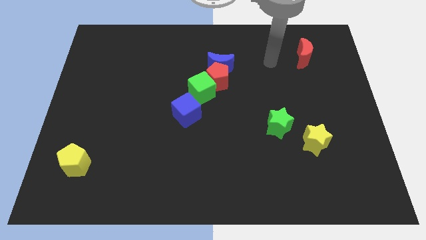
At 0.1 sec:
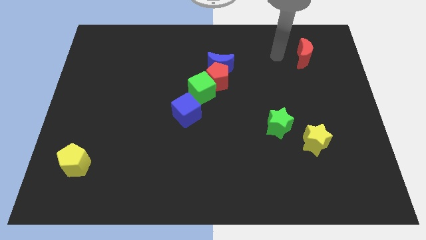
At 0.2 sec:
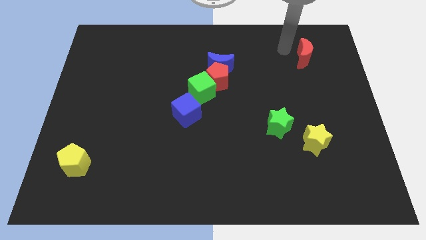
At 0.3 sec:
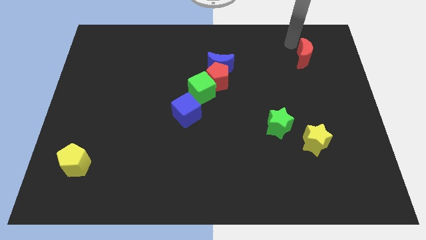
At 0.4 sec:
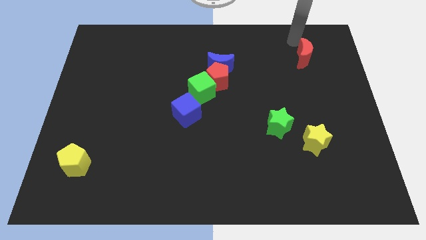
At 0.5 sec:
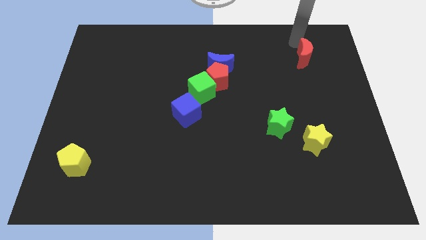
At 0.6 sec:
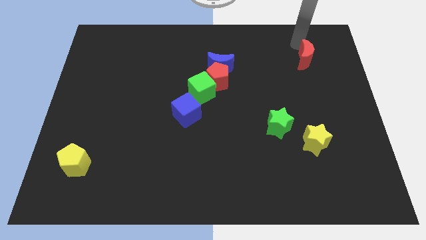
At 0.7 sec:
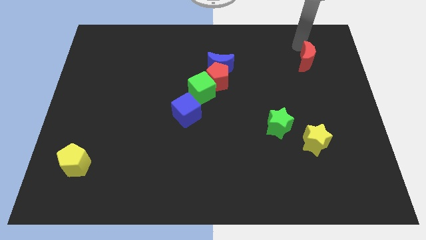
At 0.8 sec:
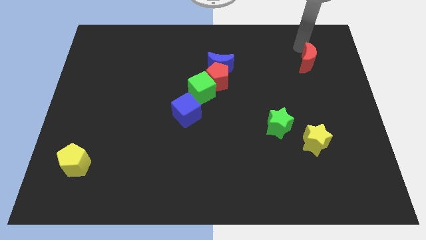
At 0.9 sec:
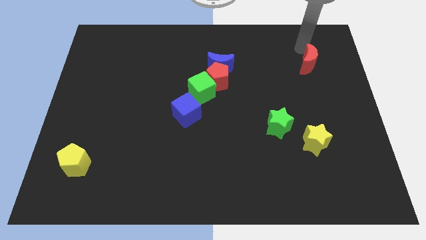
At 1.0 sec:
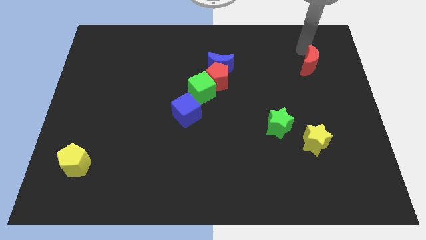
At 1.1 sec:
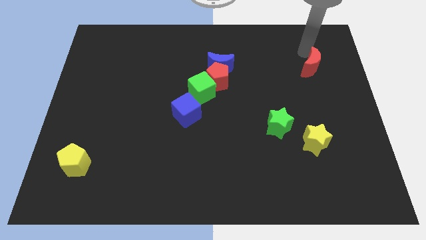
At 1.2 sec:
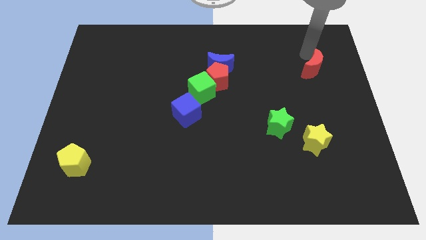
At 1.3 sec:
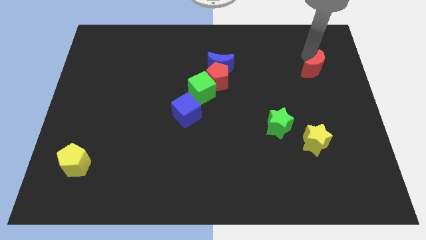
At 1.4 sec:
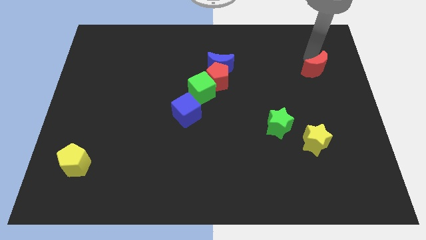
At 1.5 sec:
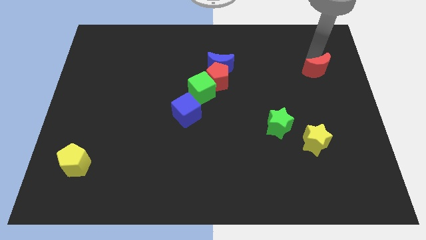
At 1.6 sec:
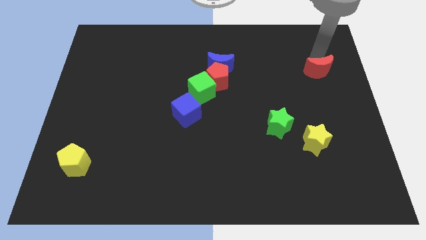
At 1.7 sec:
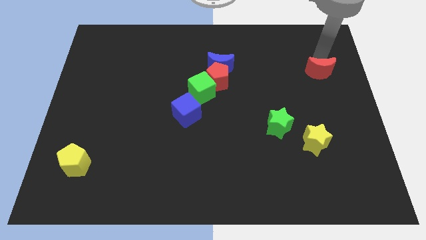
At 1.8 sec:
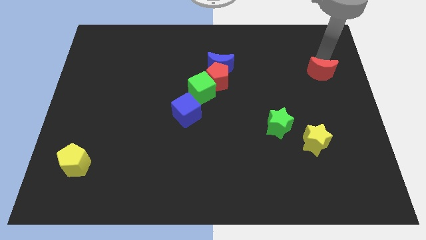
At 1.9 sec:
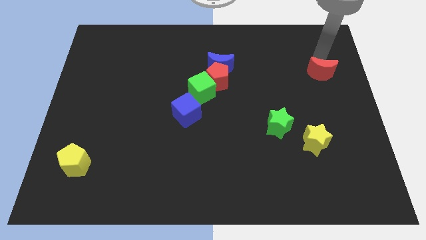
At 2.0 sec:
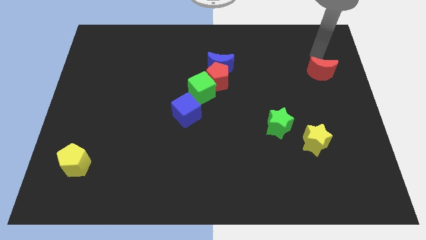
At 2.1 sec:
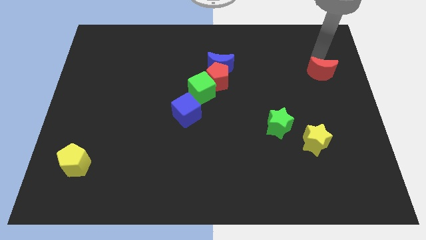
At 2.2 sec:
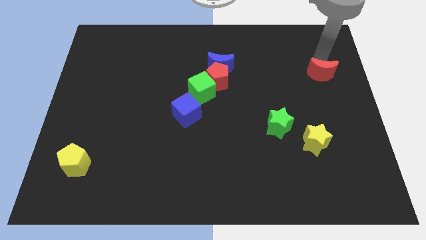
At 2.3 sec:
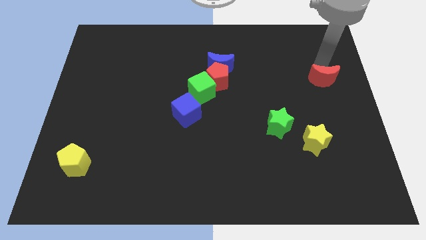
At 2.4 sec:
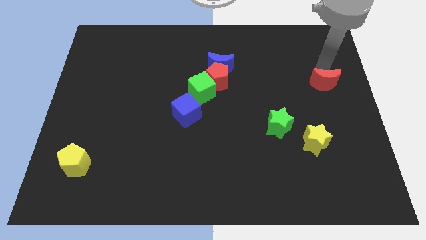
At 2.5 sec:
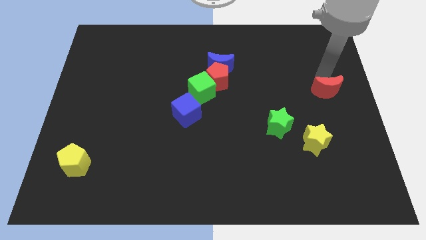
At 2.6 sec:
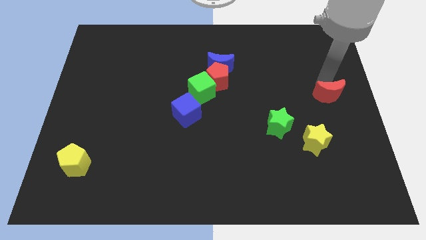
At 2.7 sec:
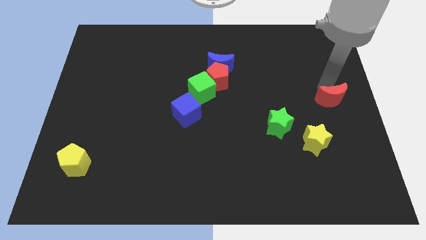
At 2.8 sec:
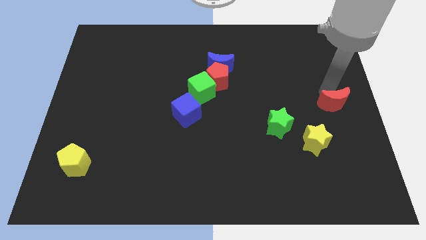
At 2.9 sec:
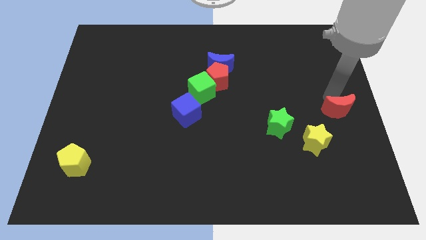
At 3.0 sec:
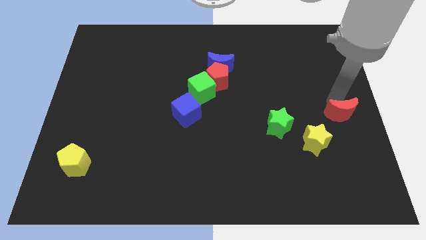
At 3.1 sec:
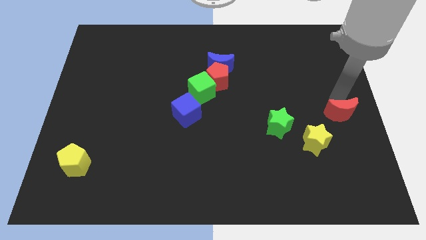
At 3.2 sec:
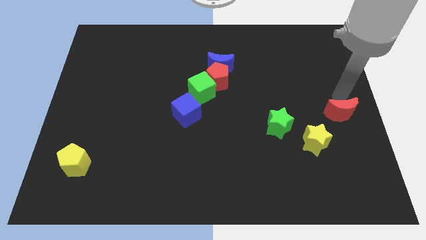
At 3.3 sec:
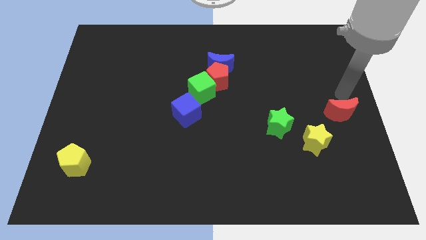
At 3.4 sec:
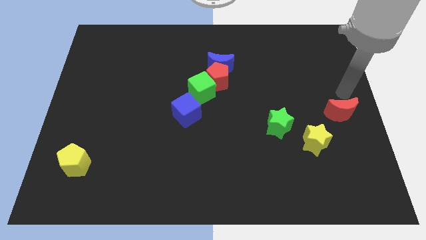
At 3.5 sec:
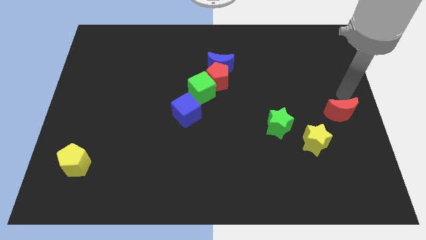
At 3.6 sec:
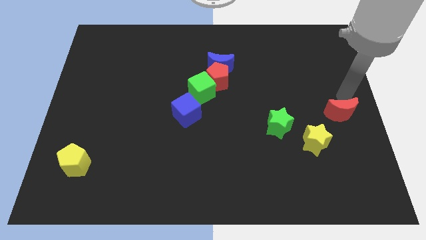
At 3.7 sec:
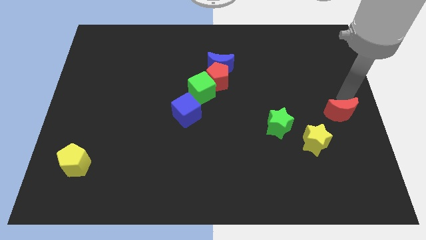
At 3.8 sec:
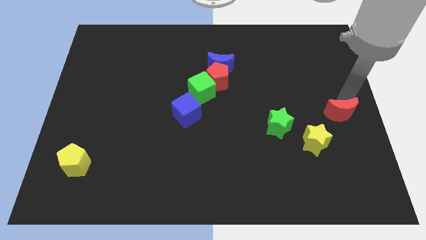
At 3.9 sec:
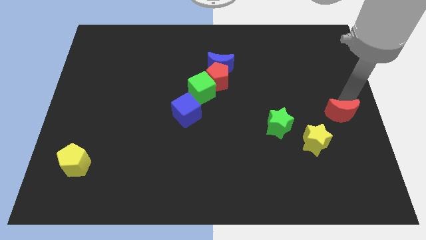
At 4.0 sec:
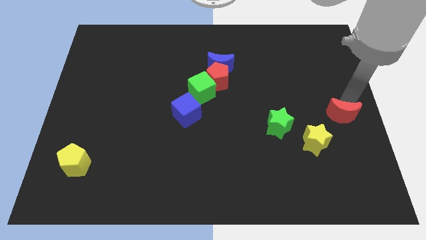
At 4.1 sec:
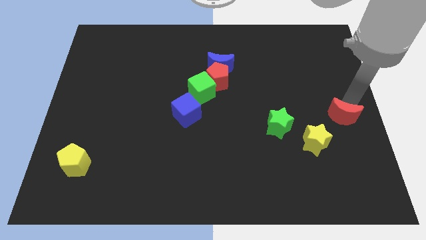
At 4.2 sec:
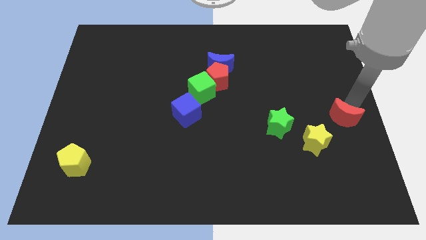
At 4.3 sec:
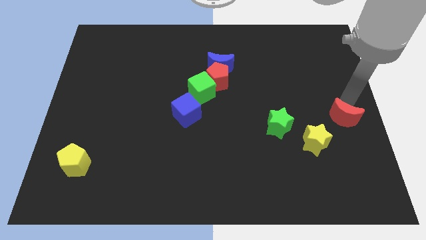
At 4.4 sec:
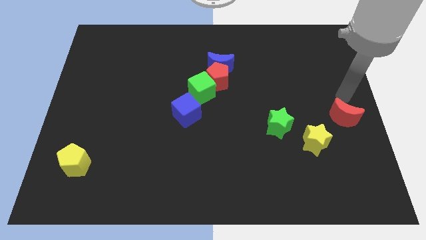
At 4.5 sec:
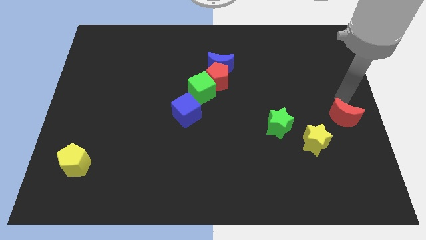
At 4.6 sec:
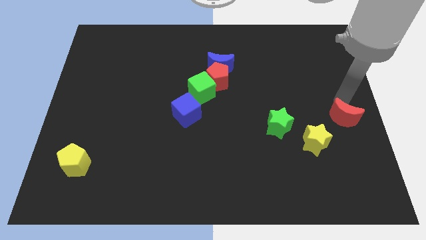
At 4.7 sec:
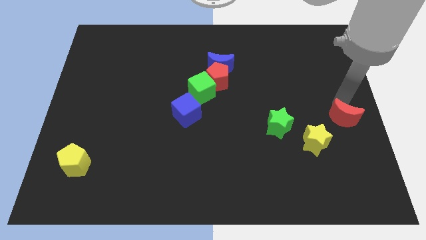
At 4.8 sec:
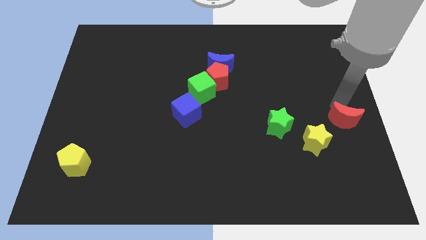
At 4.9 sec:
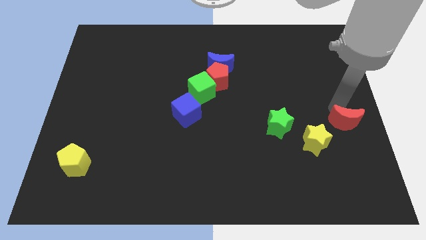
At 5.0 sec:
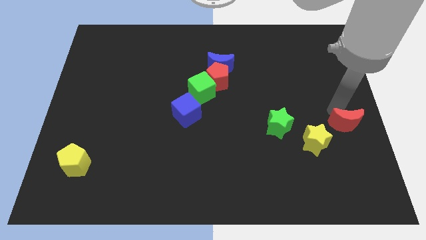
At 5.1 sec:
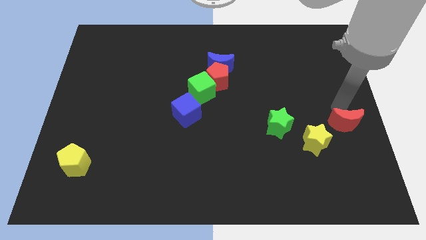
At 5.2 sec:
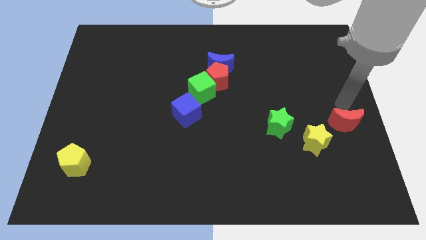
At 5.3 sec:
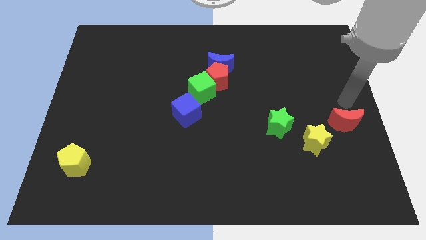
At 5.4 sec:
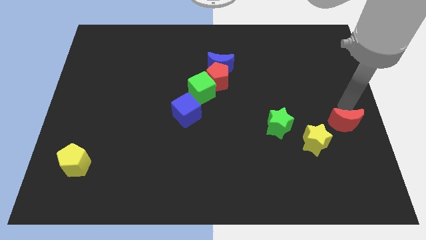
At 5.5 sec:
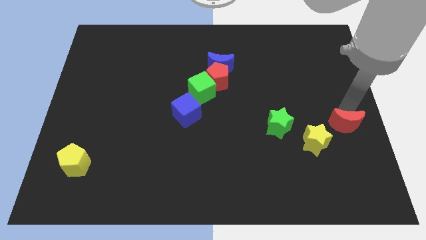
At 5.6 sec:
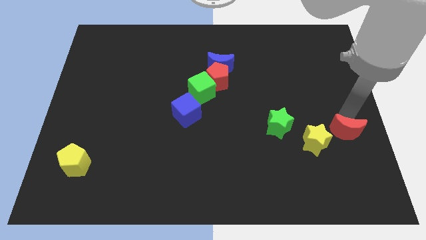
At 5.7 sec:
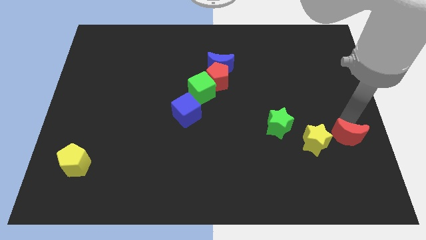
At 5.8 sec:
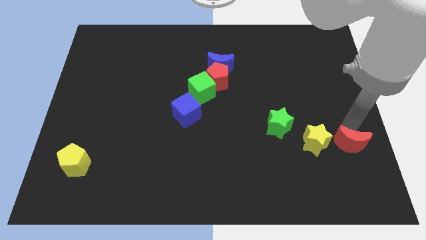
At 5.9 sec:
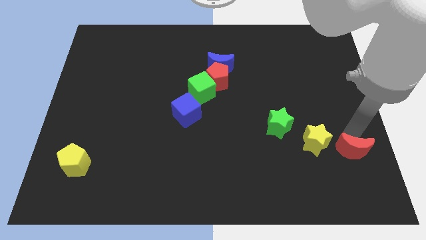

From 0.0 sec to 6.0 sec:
push the red moon to the bottom right side of the yellow star

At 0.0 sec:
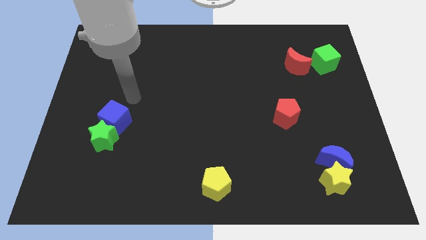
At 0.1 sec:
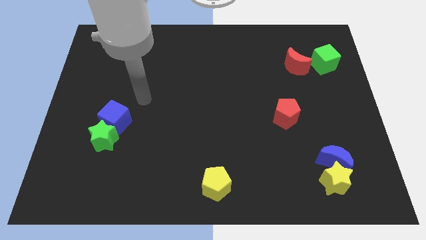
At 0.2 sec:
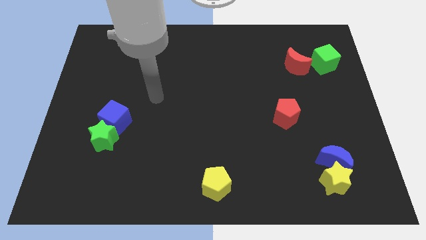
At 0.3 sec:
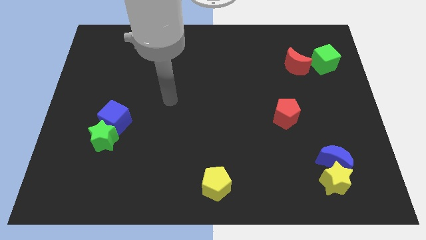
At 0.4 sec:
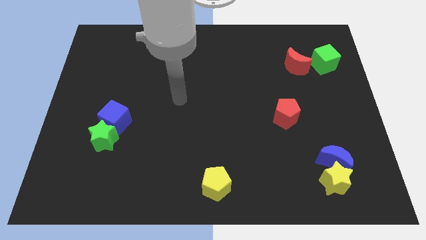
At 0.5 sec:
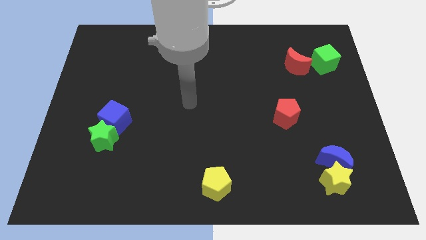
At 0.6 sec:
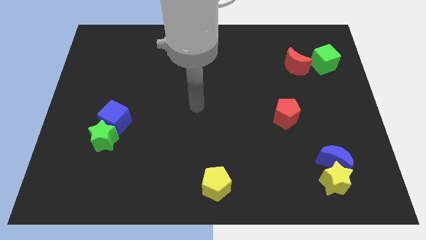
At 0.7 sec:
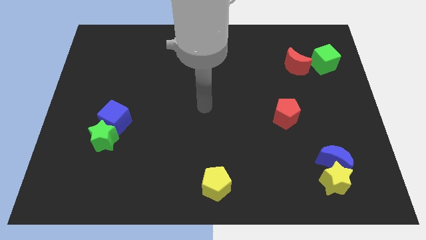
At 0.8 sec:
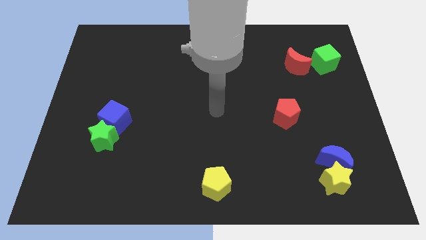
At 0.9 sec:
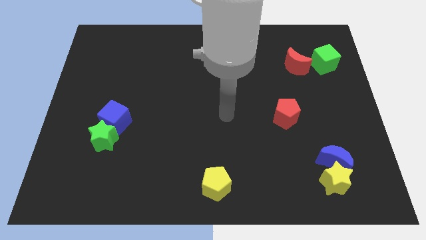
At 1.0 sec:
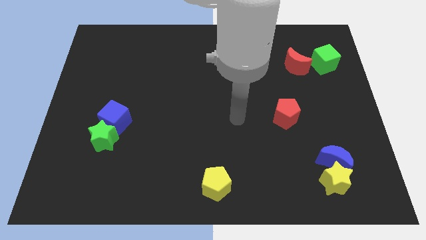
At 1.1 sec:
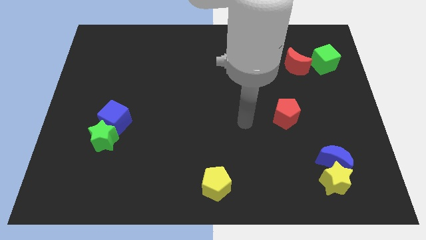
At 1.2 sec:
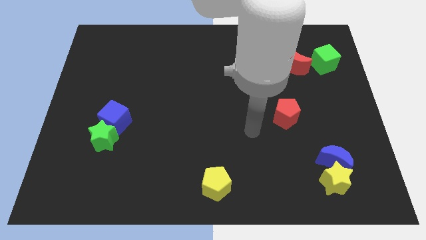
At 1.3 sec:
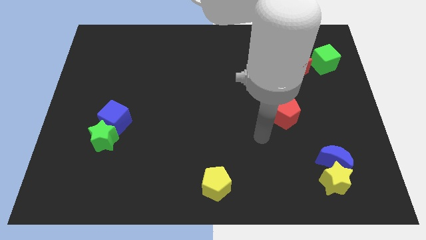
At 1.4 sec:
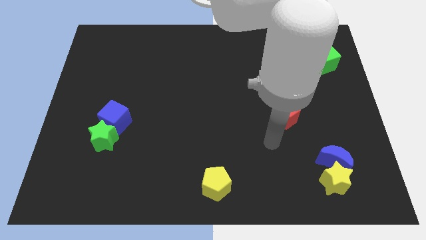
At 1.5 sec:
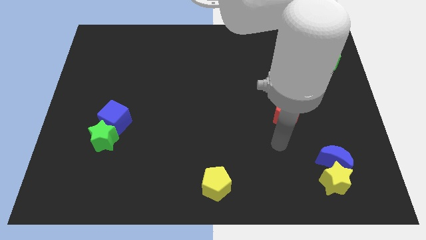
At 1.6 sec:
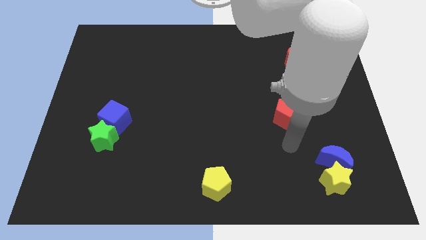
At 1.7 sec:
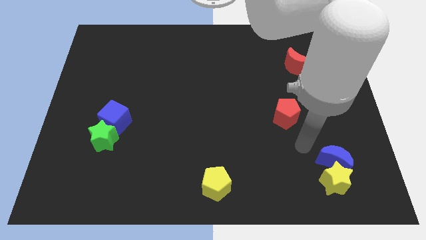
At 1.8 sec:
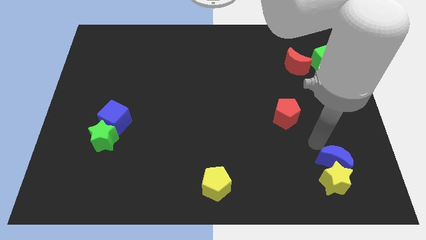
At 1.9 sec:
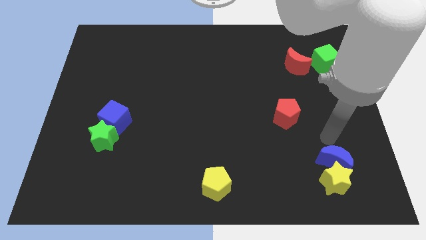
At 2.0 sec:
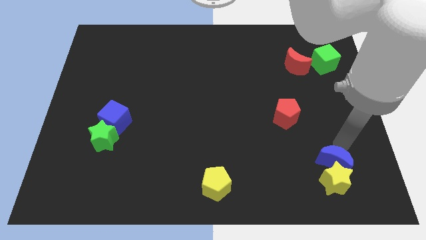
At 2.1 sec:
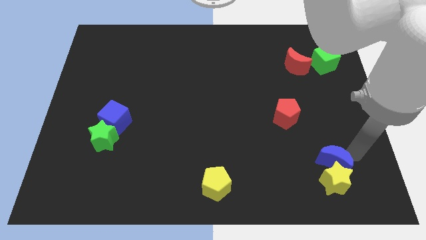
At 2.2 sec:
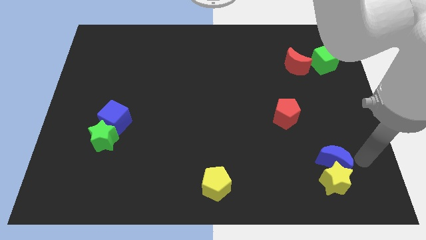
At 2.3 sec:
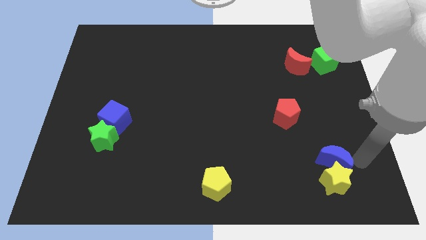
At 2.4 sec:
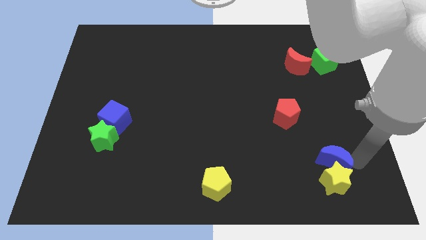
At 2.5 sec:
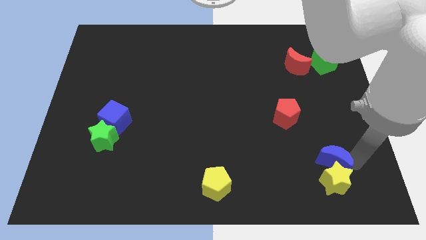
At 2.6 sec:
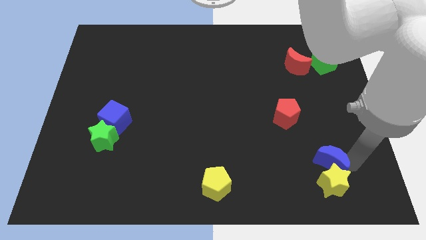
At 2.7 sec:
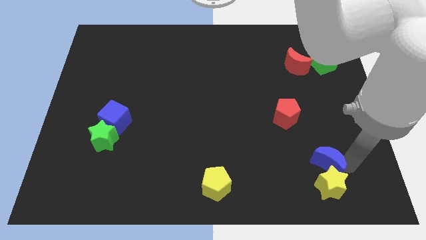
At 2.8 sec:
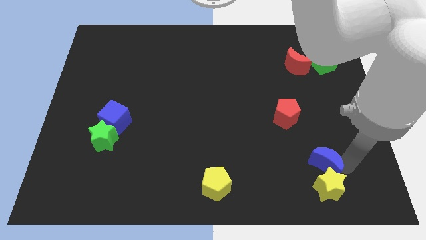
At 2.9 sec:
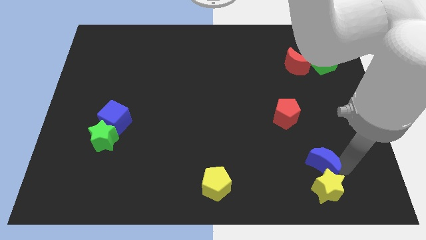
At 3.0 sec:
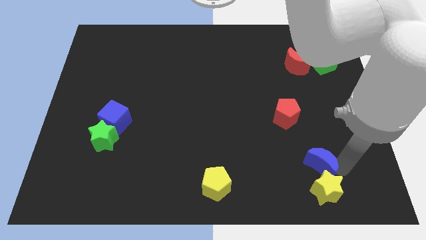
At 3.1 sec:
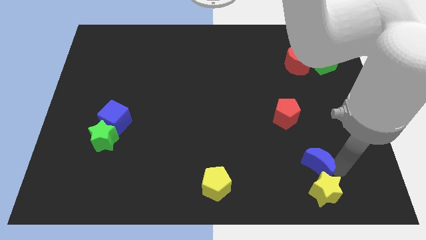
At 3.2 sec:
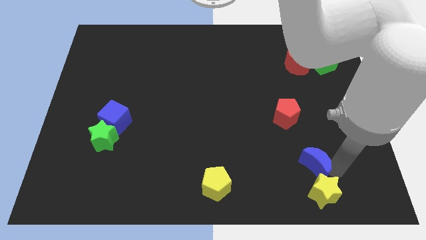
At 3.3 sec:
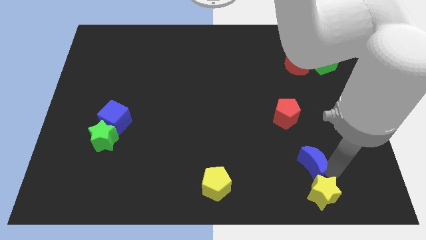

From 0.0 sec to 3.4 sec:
slide the blue moon to the bottom of the red pentagon
